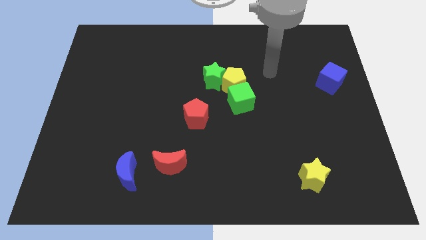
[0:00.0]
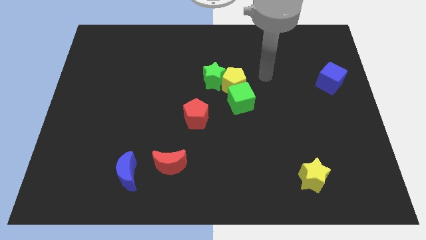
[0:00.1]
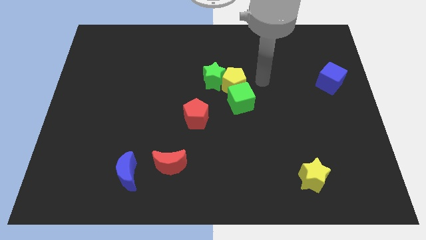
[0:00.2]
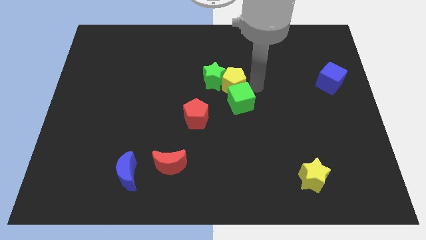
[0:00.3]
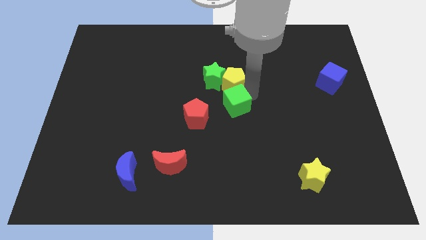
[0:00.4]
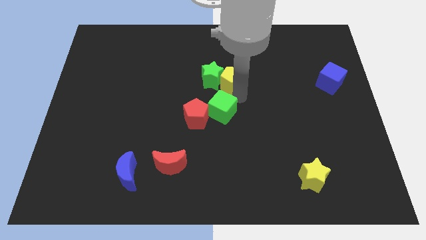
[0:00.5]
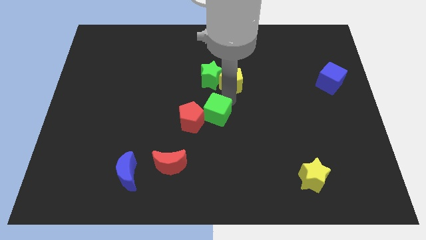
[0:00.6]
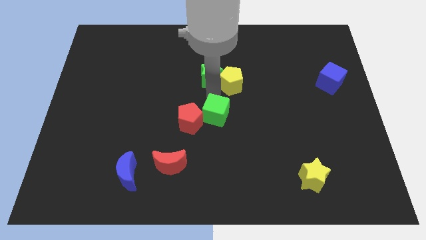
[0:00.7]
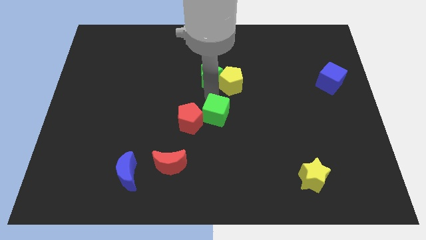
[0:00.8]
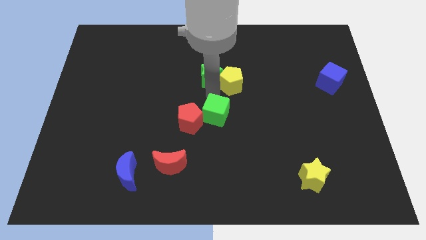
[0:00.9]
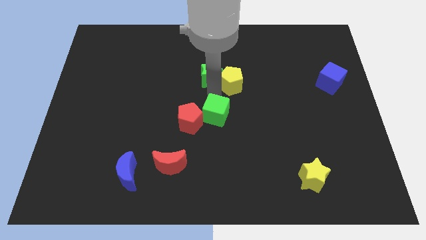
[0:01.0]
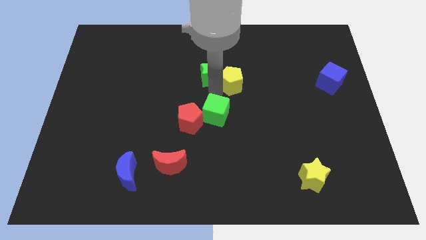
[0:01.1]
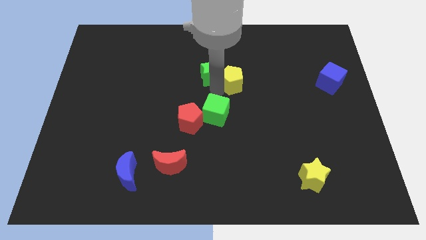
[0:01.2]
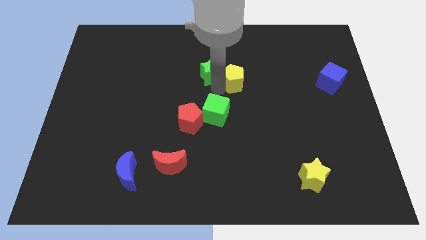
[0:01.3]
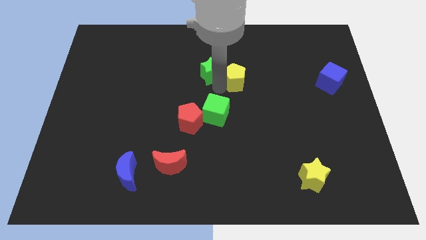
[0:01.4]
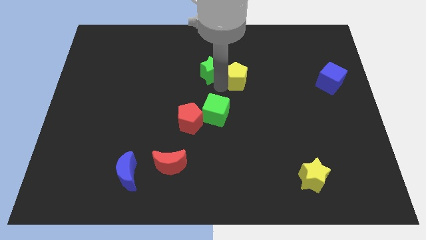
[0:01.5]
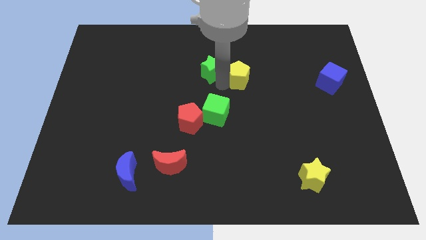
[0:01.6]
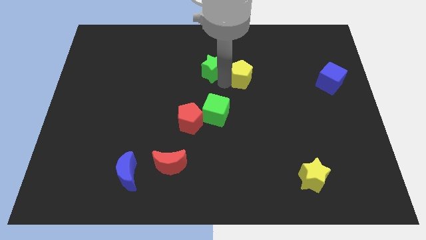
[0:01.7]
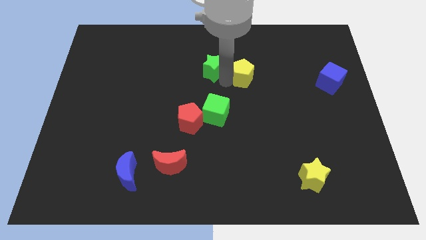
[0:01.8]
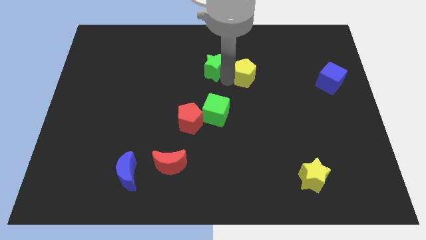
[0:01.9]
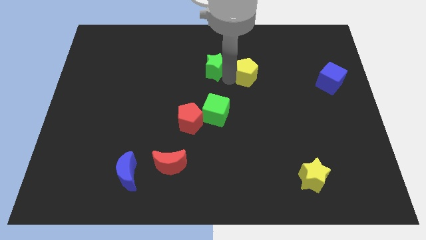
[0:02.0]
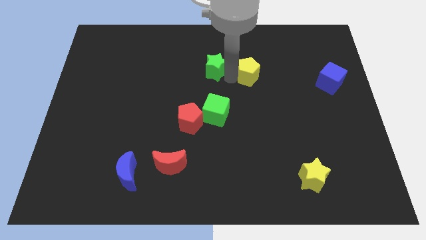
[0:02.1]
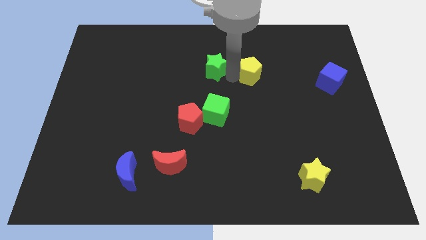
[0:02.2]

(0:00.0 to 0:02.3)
separate the yellow pentagon from the green star and green cube

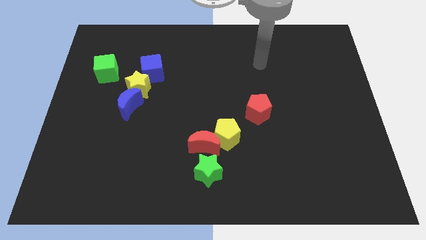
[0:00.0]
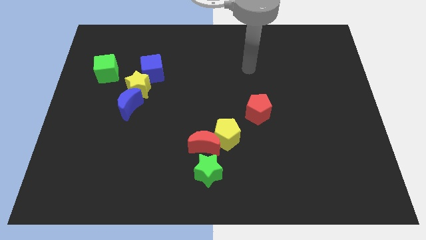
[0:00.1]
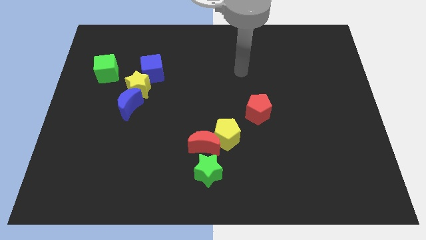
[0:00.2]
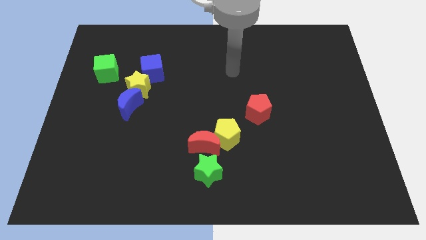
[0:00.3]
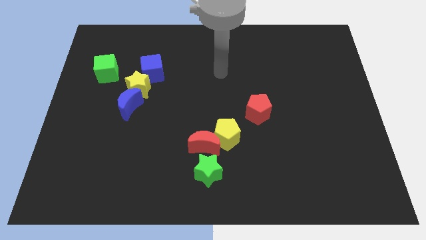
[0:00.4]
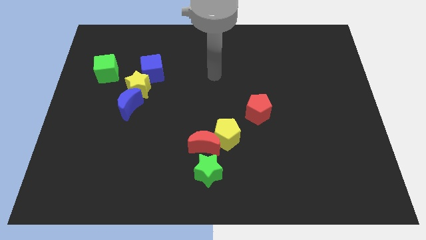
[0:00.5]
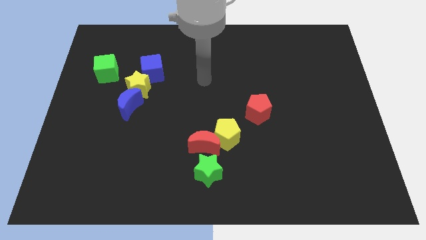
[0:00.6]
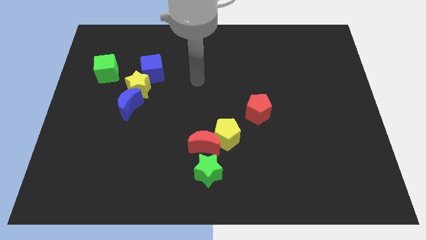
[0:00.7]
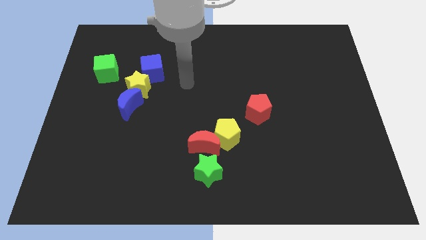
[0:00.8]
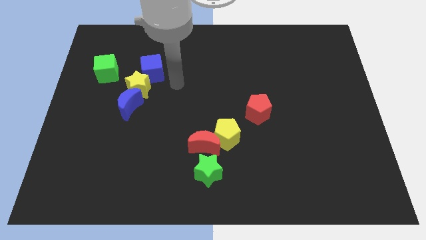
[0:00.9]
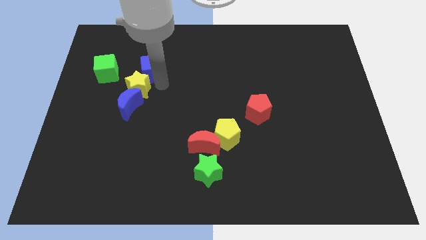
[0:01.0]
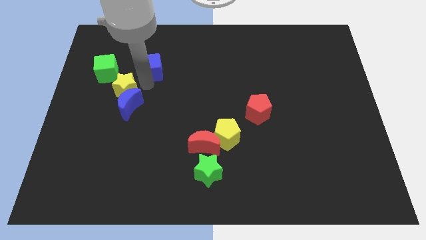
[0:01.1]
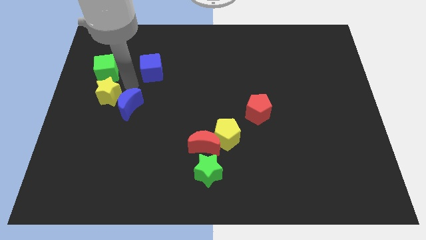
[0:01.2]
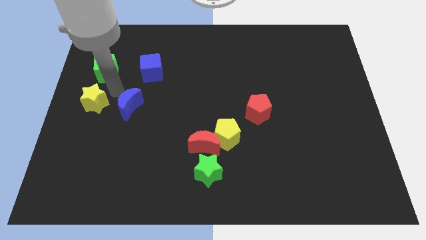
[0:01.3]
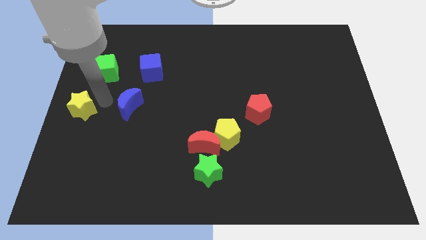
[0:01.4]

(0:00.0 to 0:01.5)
move the blue moon away from the yellow star

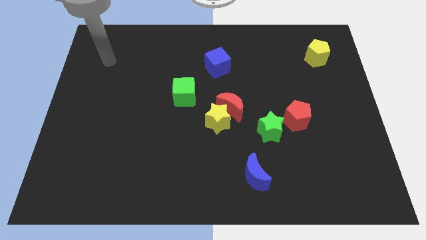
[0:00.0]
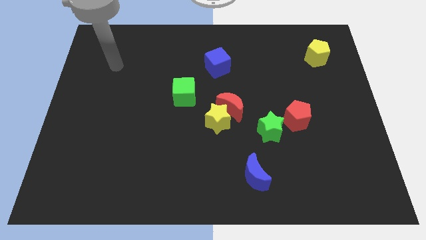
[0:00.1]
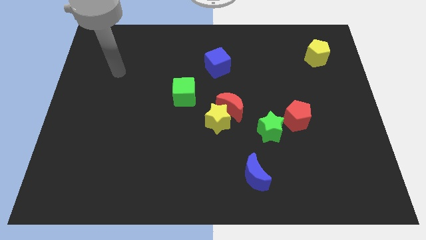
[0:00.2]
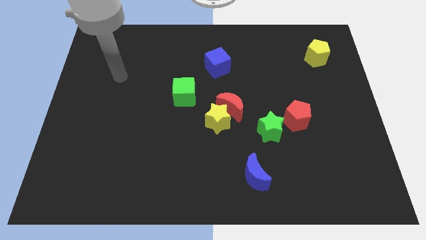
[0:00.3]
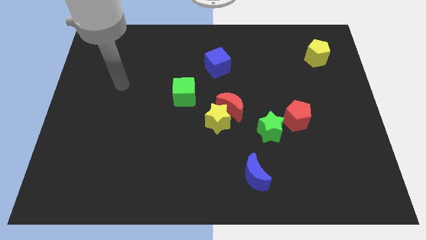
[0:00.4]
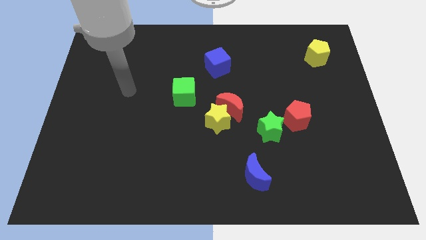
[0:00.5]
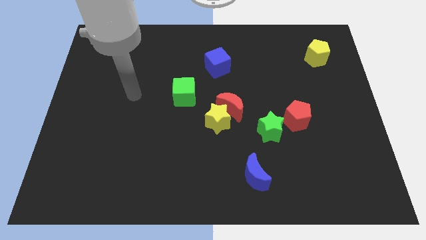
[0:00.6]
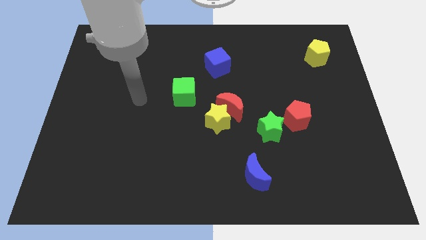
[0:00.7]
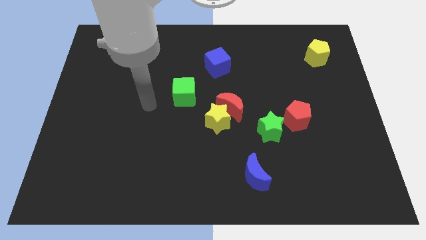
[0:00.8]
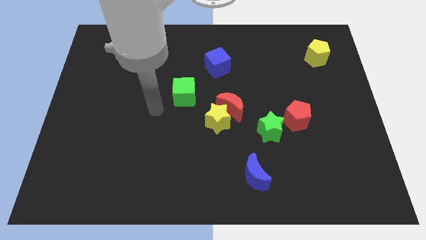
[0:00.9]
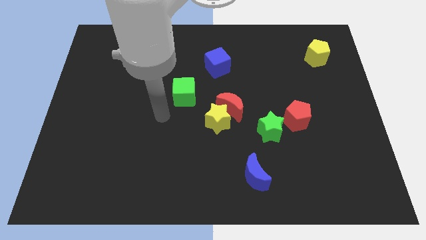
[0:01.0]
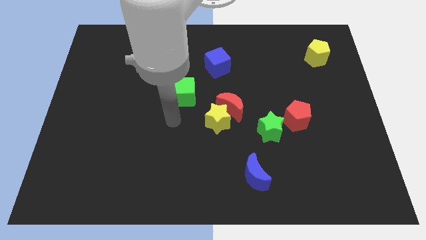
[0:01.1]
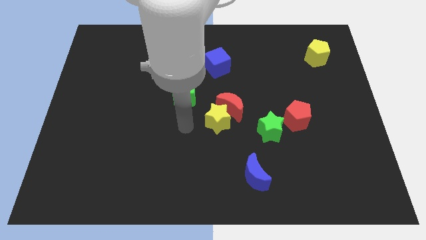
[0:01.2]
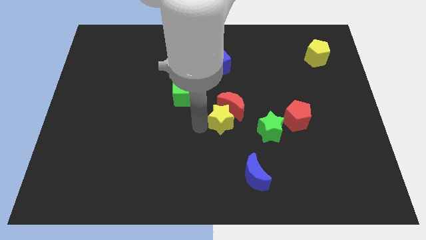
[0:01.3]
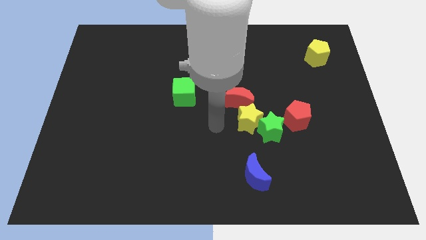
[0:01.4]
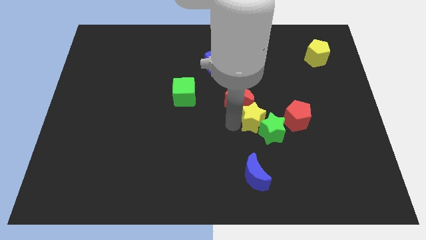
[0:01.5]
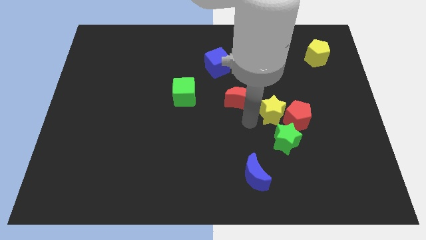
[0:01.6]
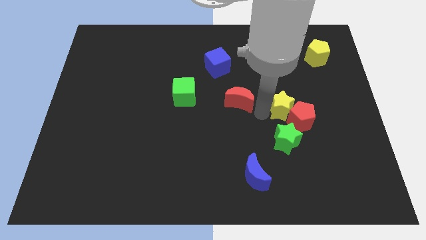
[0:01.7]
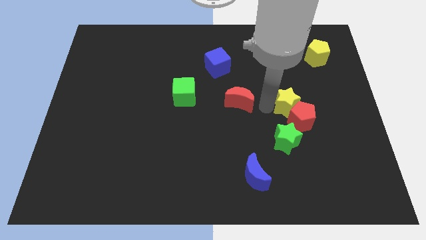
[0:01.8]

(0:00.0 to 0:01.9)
pull the red moon apart from the yellow star

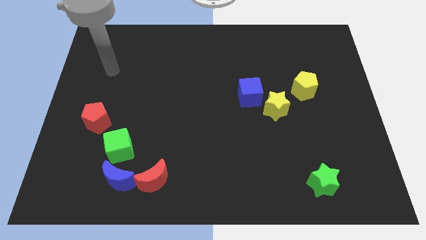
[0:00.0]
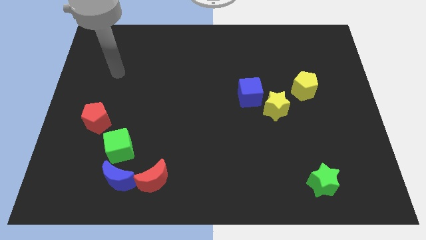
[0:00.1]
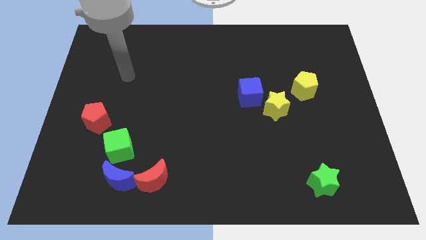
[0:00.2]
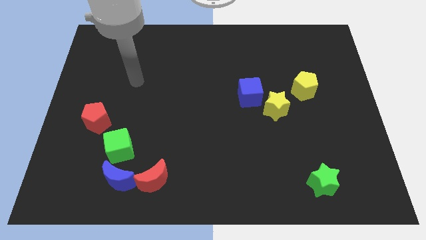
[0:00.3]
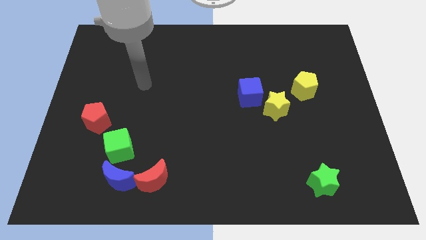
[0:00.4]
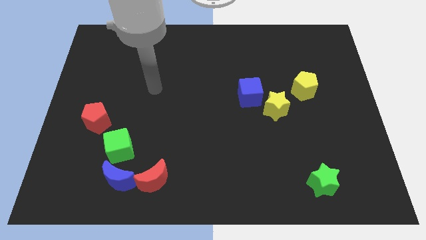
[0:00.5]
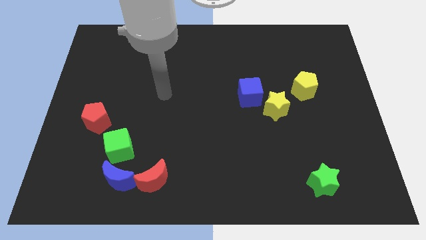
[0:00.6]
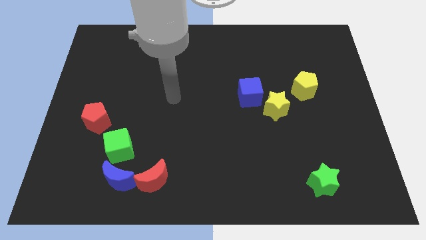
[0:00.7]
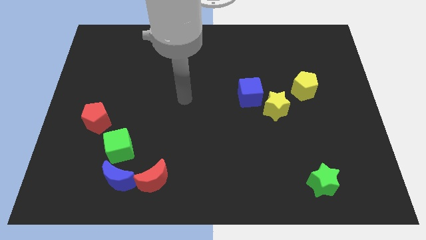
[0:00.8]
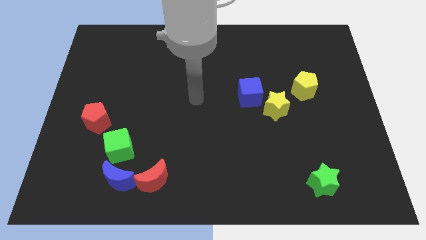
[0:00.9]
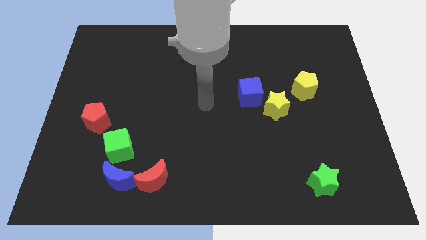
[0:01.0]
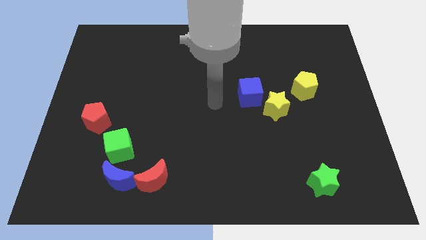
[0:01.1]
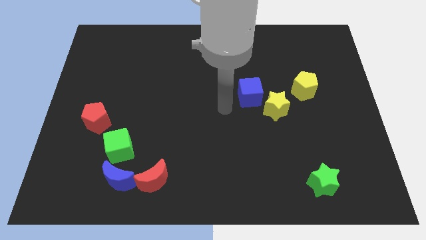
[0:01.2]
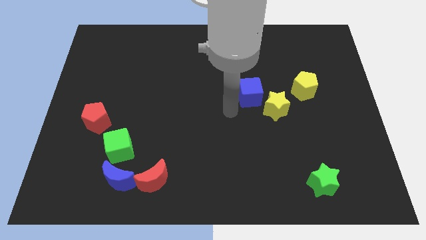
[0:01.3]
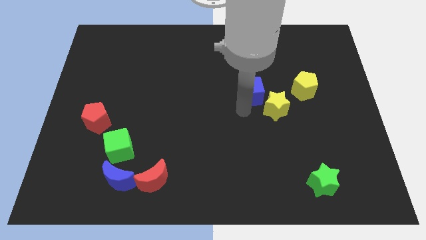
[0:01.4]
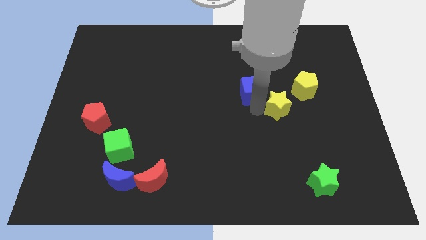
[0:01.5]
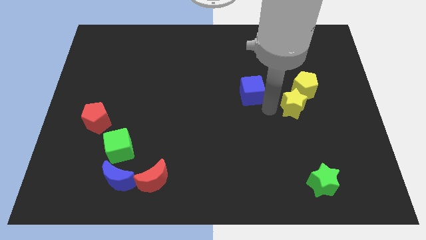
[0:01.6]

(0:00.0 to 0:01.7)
move the blue cube away from the yellow star

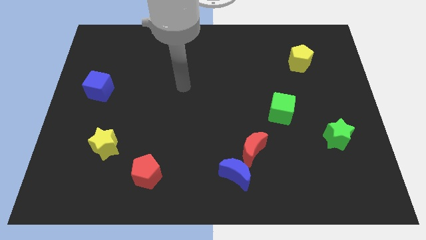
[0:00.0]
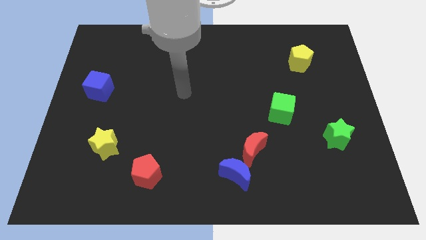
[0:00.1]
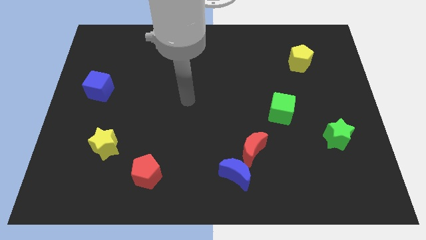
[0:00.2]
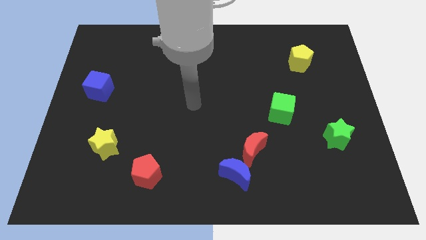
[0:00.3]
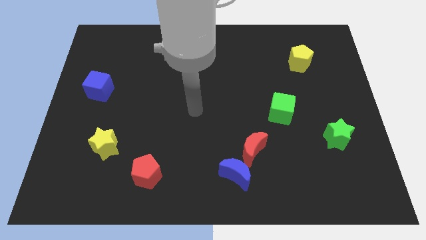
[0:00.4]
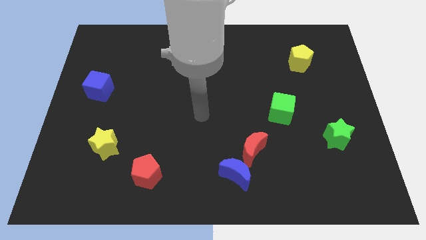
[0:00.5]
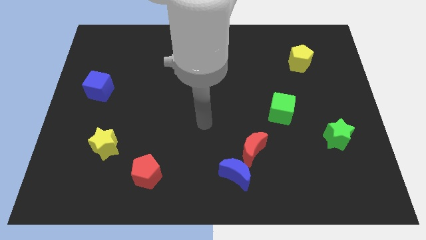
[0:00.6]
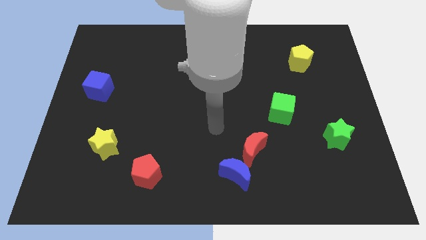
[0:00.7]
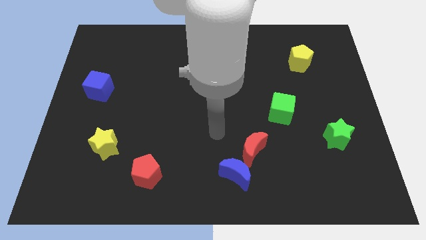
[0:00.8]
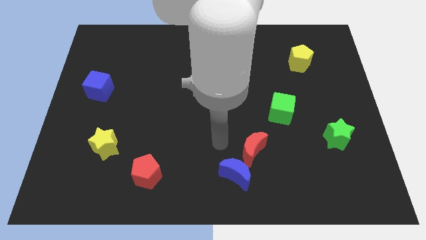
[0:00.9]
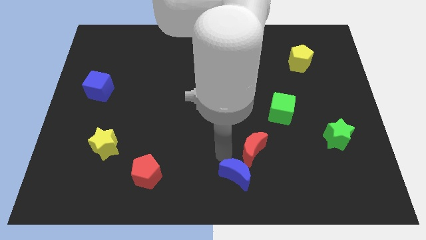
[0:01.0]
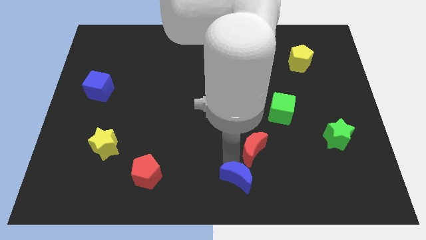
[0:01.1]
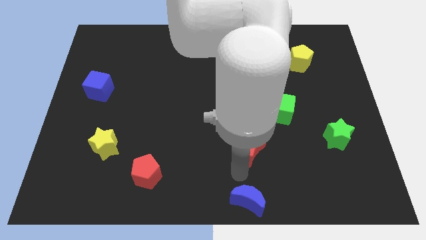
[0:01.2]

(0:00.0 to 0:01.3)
move the red moon away from the blue moon

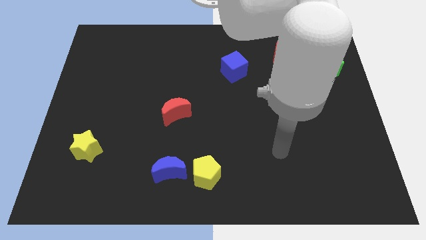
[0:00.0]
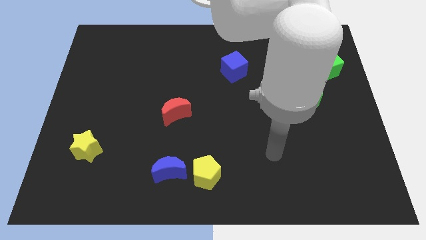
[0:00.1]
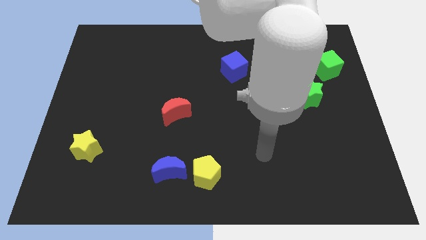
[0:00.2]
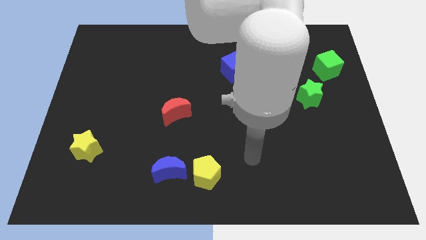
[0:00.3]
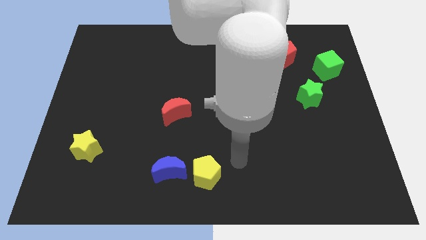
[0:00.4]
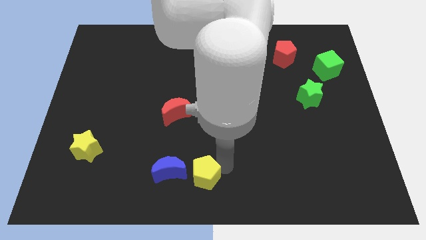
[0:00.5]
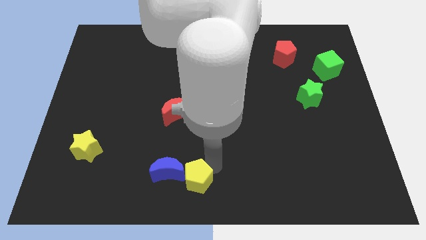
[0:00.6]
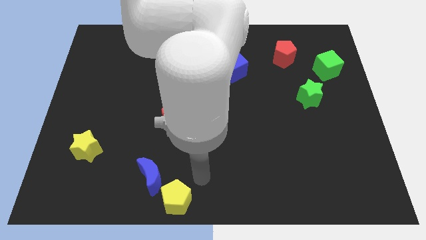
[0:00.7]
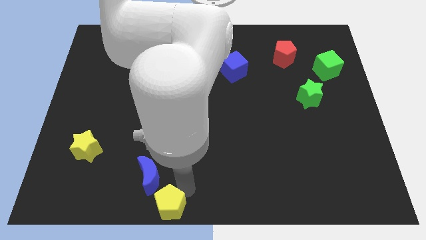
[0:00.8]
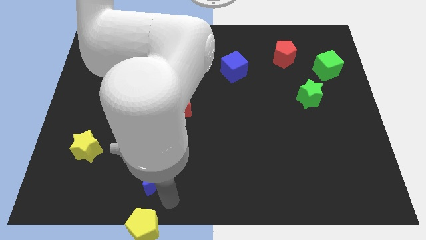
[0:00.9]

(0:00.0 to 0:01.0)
pull the blue moon apart from the yellow pentagon
